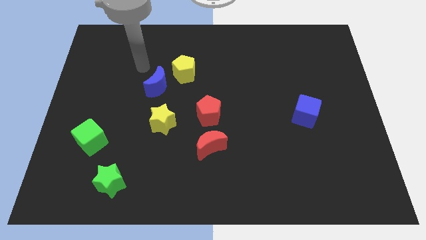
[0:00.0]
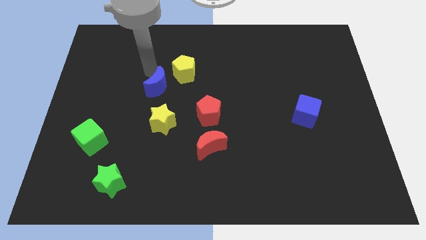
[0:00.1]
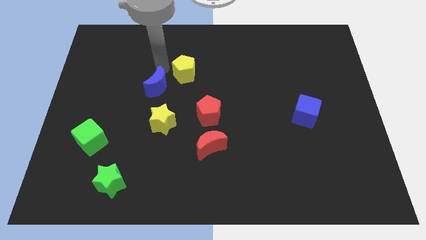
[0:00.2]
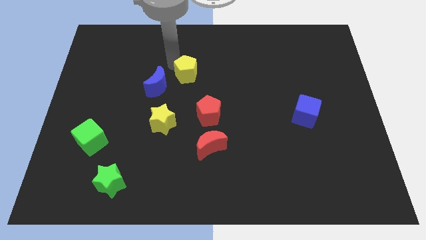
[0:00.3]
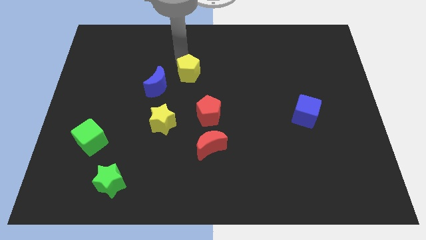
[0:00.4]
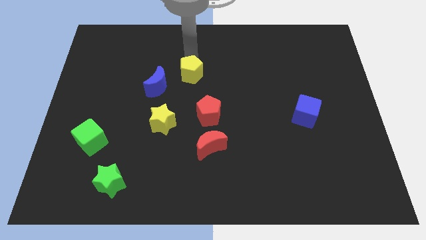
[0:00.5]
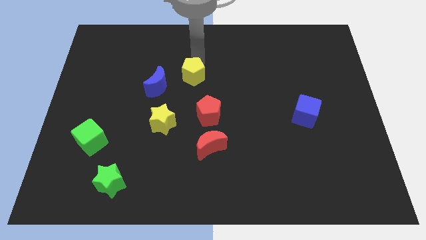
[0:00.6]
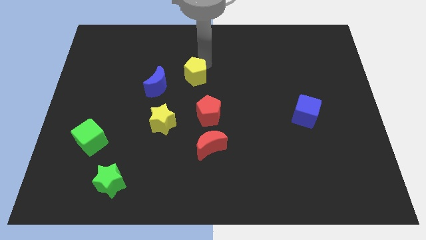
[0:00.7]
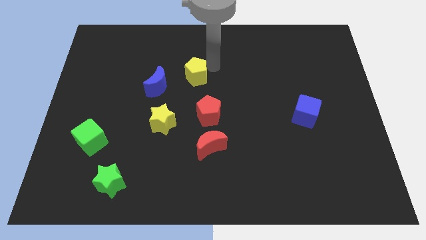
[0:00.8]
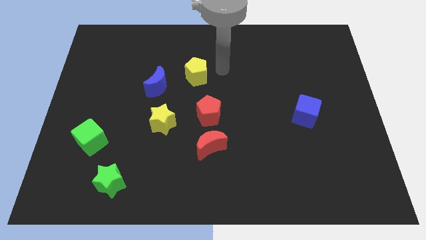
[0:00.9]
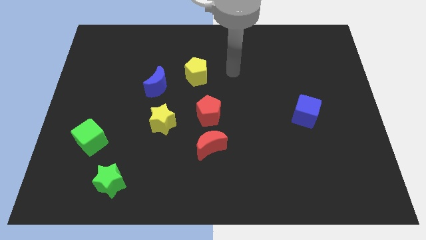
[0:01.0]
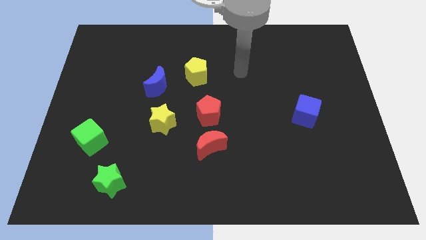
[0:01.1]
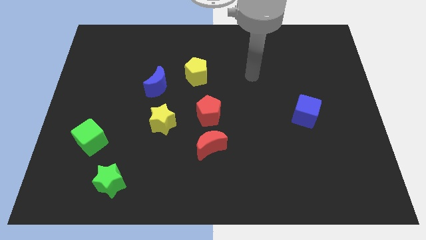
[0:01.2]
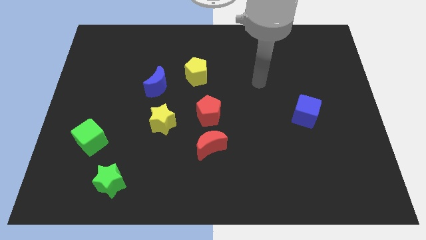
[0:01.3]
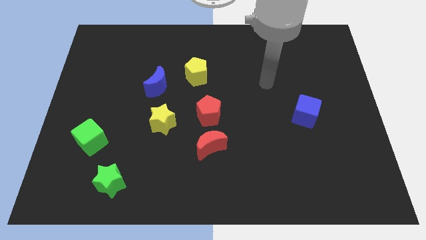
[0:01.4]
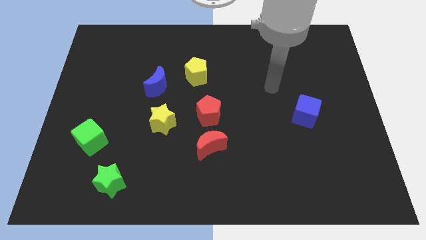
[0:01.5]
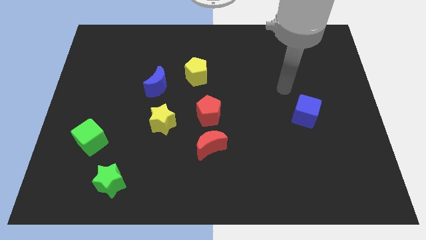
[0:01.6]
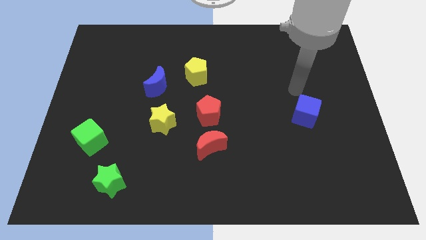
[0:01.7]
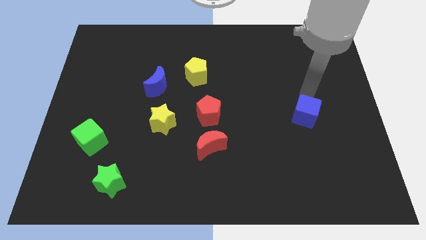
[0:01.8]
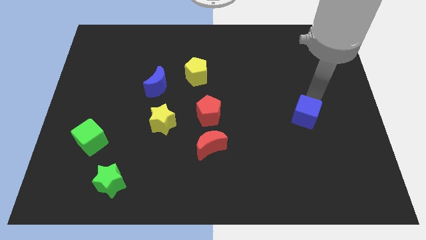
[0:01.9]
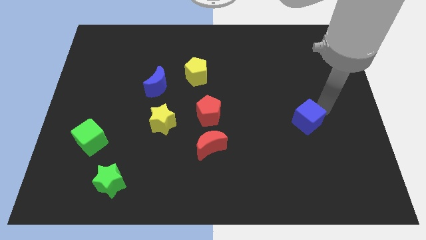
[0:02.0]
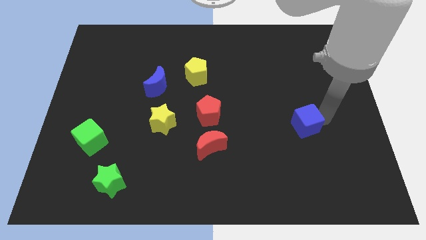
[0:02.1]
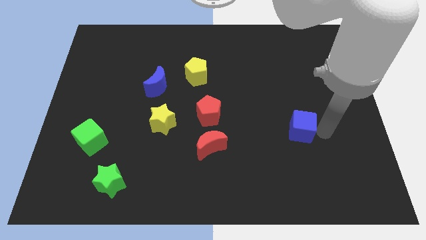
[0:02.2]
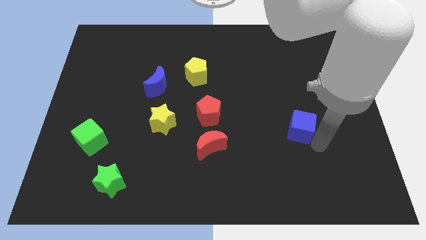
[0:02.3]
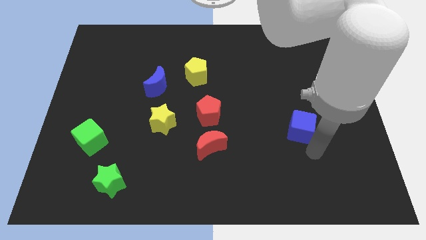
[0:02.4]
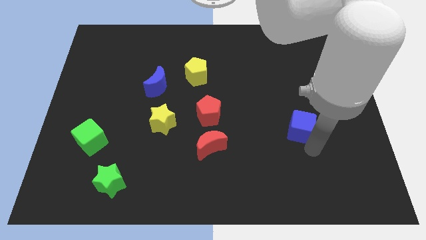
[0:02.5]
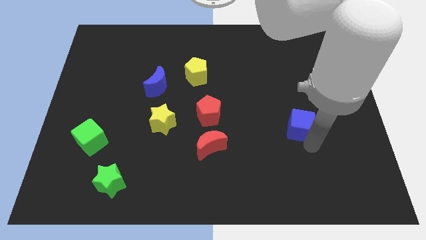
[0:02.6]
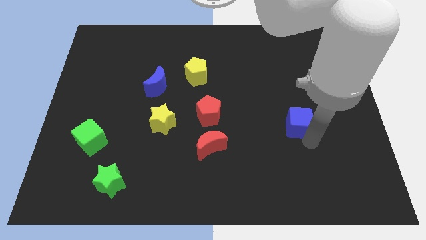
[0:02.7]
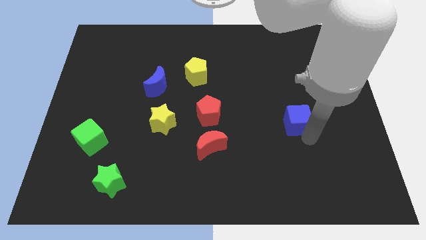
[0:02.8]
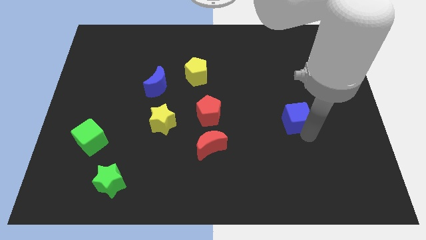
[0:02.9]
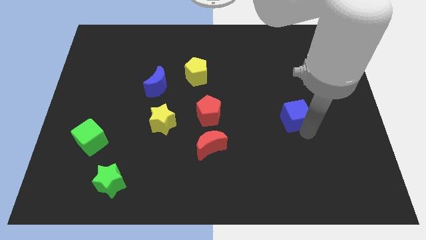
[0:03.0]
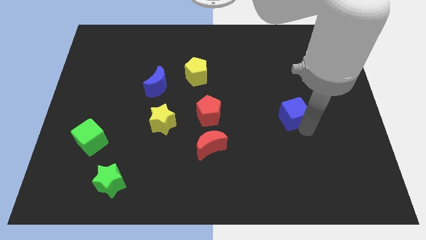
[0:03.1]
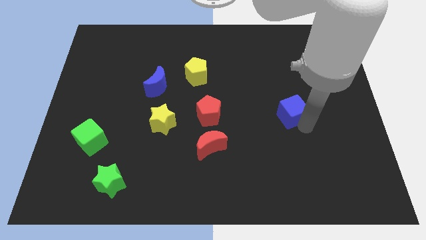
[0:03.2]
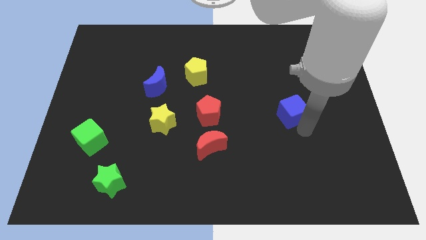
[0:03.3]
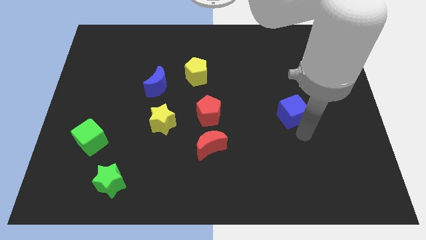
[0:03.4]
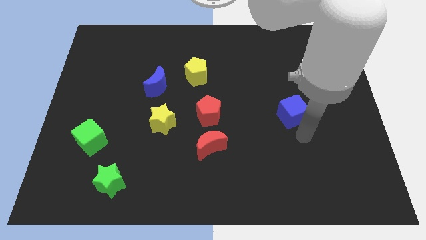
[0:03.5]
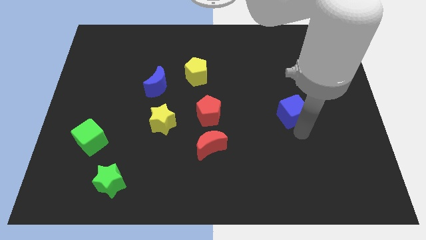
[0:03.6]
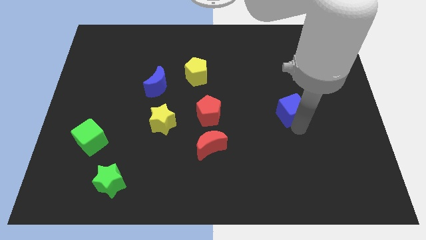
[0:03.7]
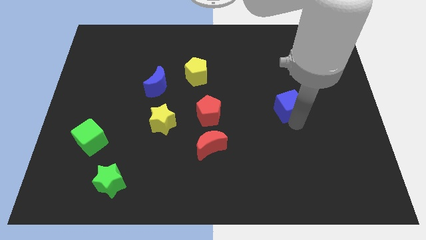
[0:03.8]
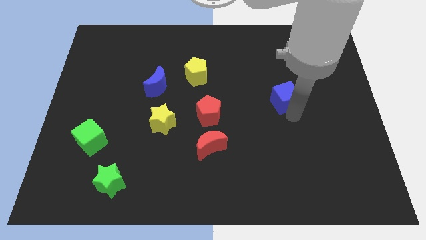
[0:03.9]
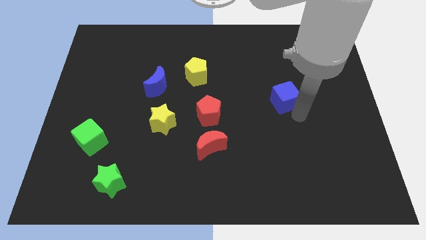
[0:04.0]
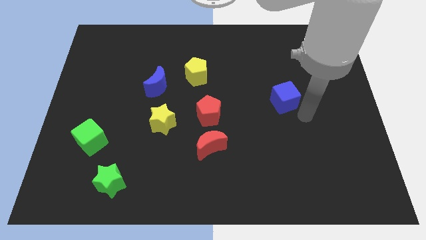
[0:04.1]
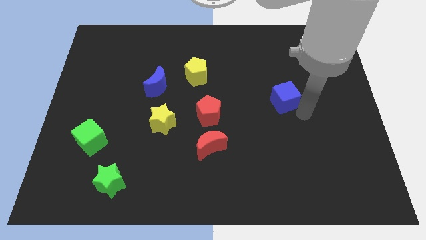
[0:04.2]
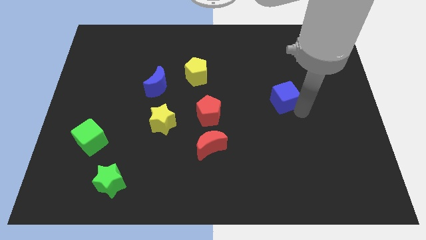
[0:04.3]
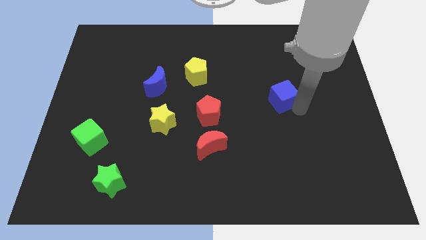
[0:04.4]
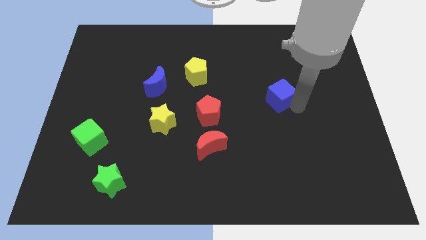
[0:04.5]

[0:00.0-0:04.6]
slide the blue cube a little diagonally up and left

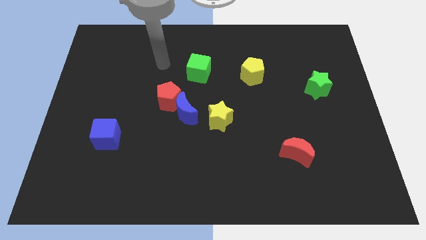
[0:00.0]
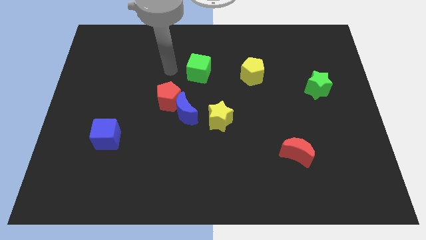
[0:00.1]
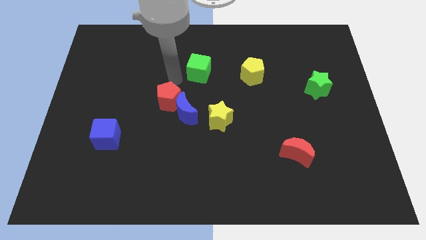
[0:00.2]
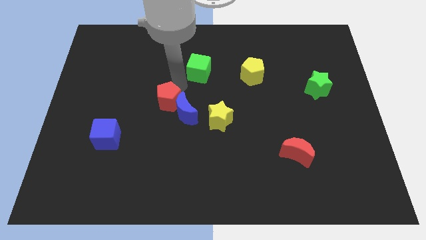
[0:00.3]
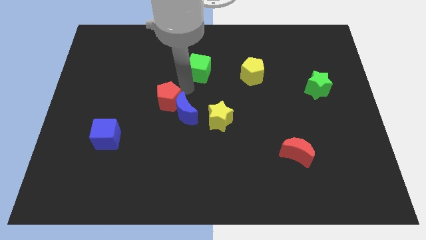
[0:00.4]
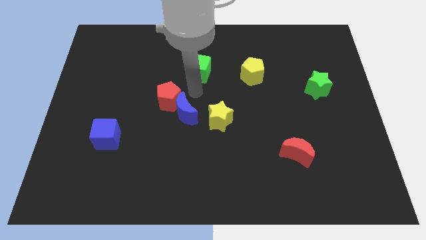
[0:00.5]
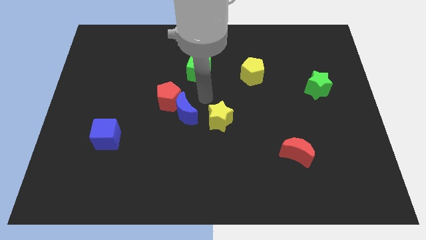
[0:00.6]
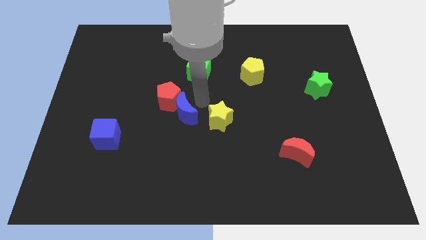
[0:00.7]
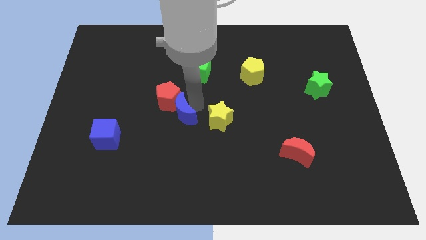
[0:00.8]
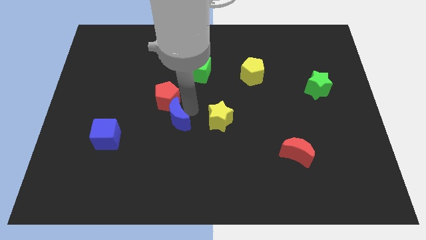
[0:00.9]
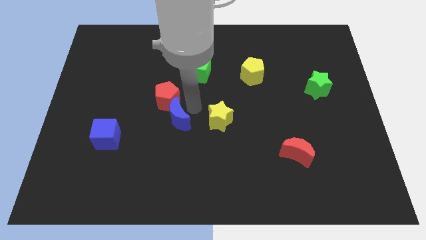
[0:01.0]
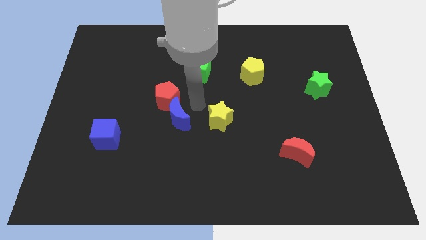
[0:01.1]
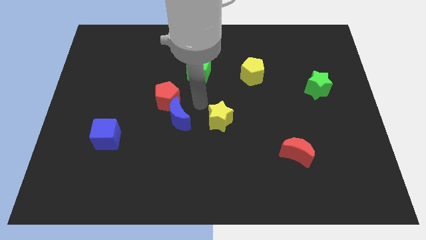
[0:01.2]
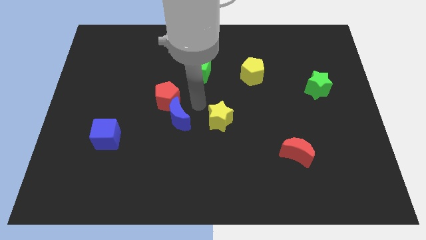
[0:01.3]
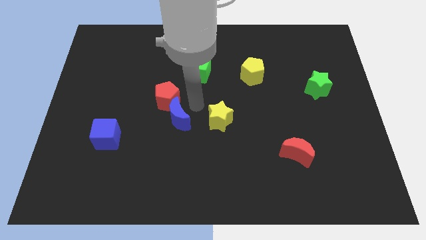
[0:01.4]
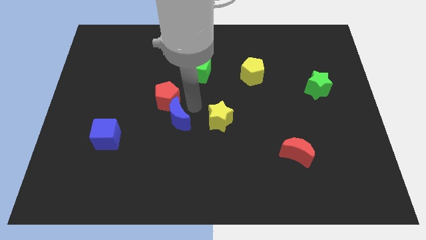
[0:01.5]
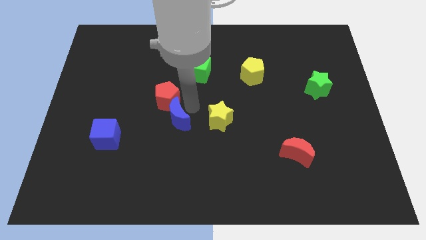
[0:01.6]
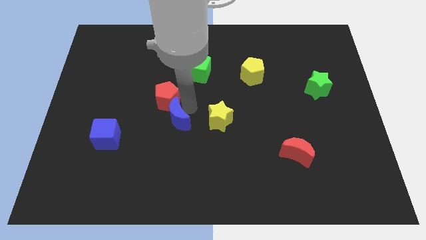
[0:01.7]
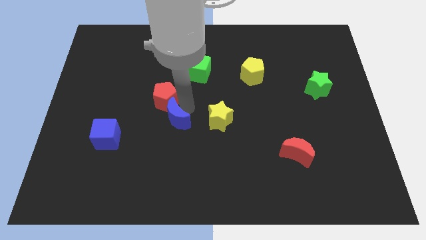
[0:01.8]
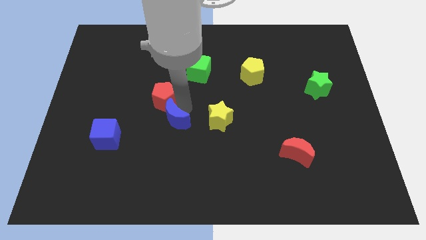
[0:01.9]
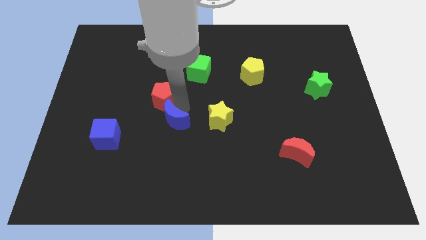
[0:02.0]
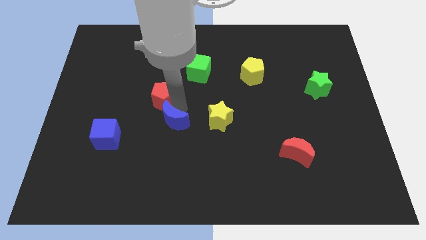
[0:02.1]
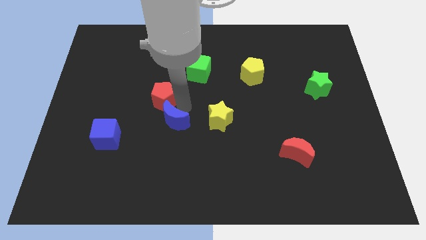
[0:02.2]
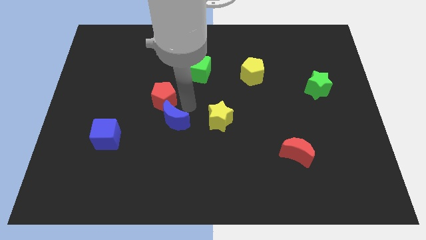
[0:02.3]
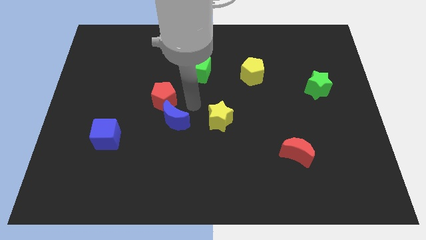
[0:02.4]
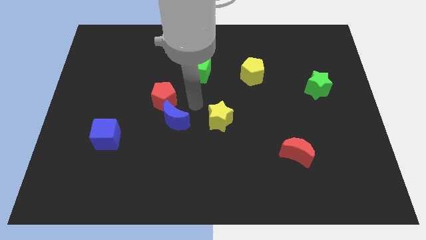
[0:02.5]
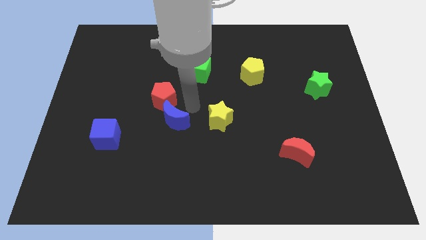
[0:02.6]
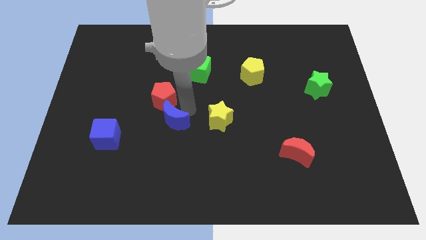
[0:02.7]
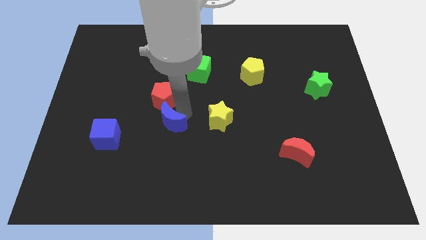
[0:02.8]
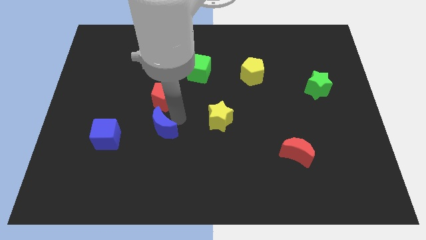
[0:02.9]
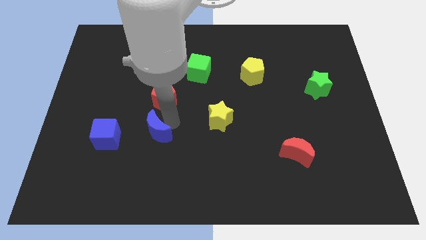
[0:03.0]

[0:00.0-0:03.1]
slightly push the blue moon downwards and then to the left

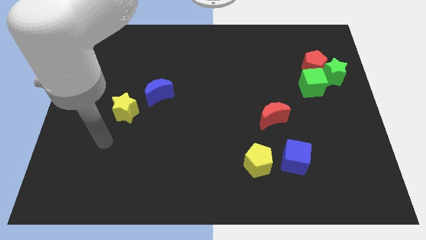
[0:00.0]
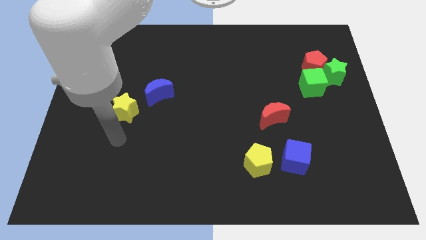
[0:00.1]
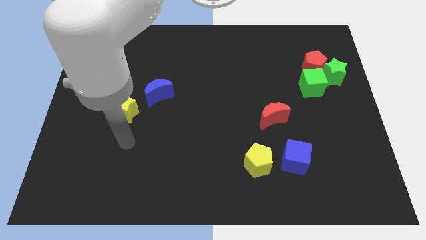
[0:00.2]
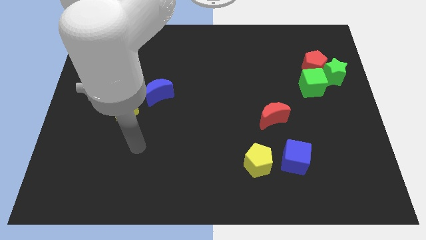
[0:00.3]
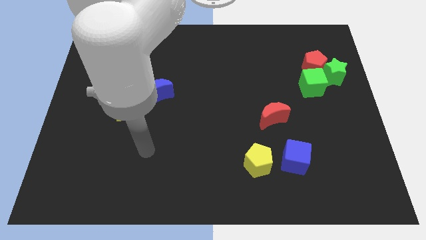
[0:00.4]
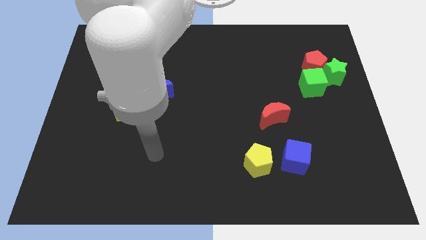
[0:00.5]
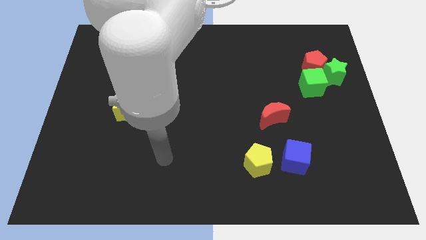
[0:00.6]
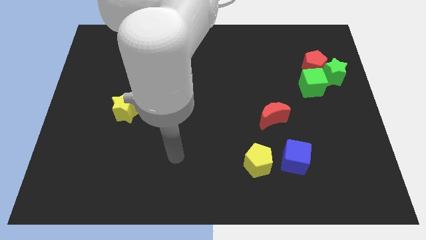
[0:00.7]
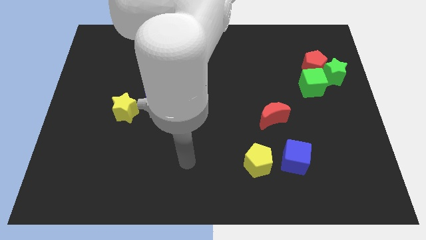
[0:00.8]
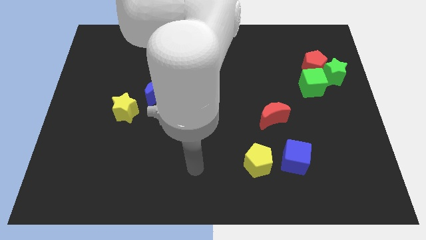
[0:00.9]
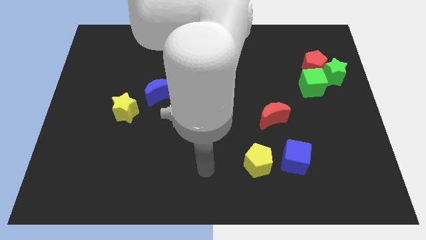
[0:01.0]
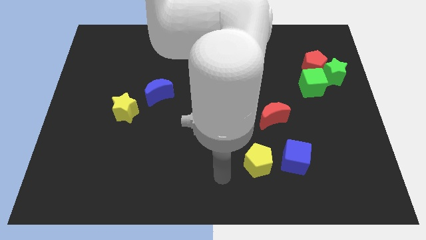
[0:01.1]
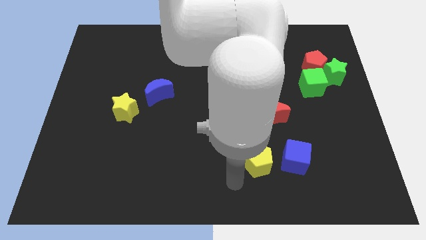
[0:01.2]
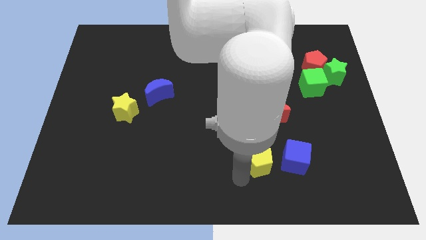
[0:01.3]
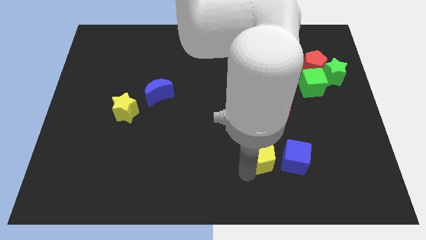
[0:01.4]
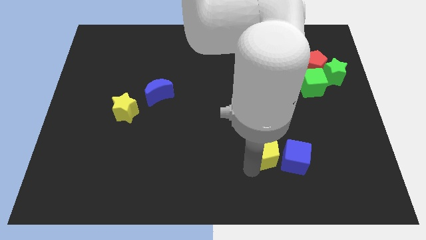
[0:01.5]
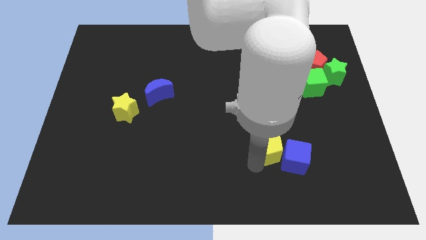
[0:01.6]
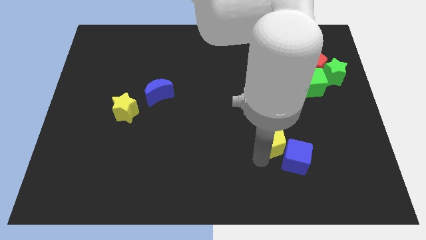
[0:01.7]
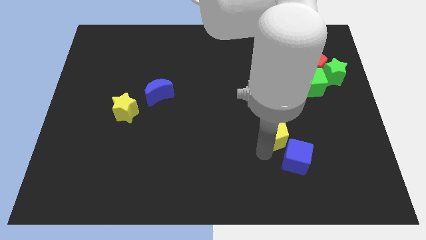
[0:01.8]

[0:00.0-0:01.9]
move the yellow pentagon a bit upwards and then to the right
